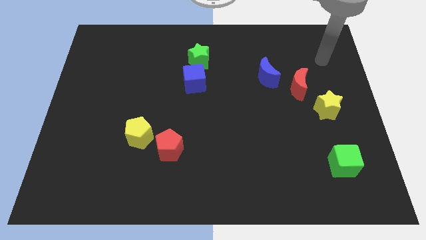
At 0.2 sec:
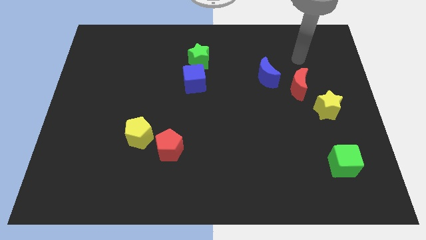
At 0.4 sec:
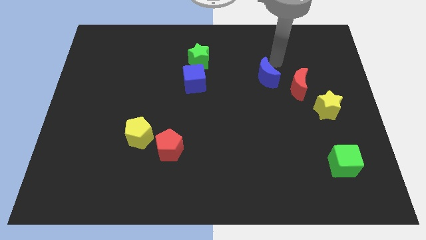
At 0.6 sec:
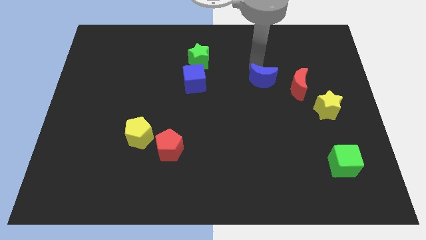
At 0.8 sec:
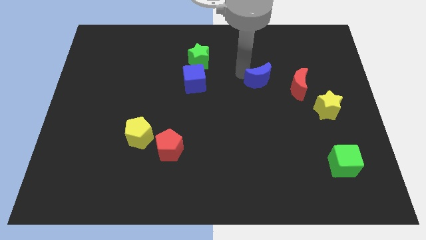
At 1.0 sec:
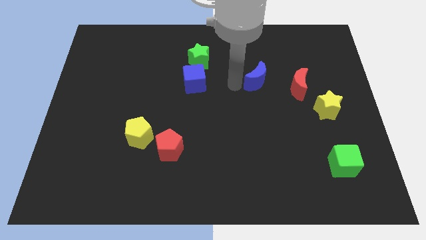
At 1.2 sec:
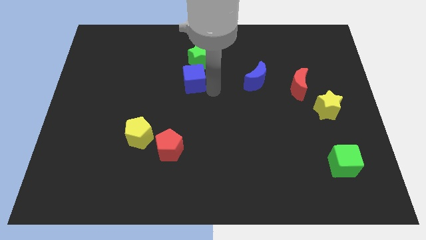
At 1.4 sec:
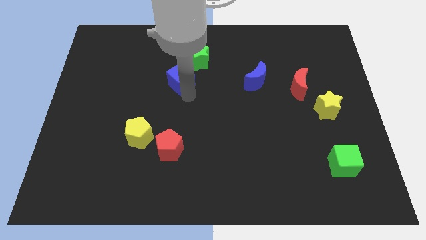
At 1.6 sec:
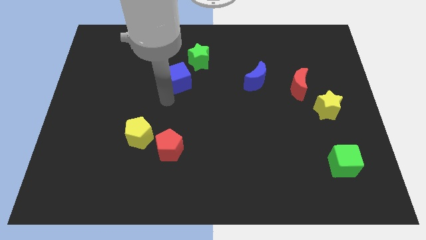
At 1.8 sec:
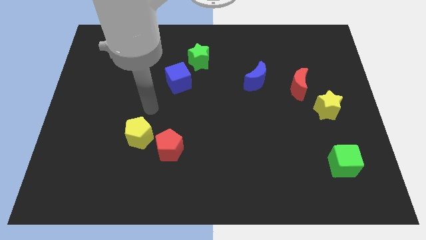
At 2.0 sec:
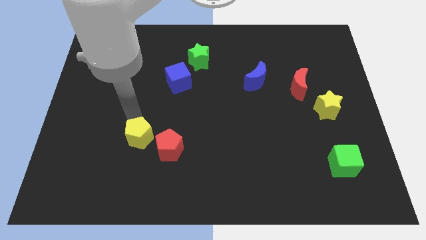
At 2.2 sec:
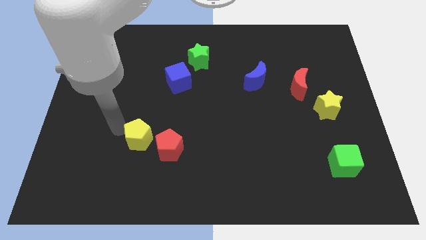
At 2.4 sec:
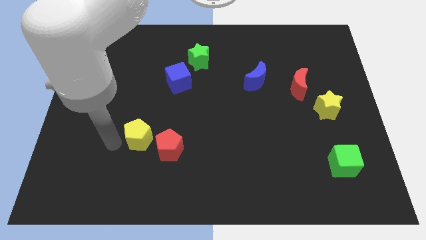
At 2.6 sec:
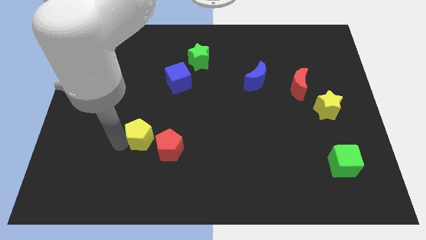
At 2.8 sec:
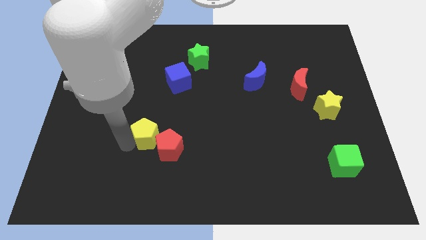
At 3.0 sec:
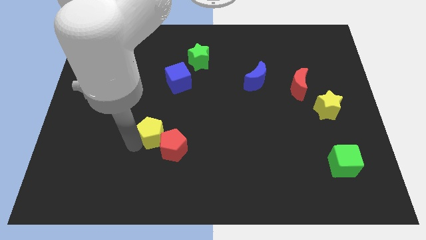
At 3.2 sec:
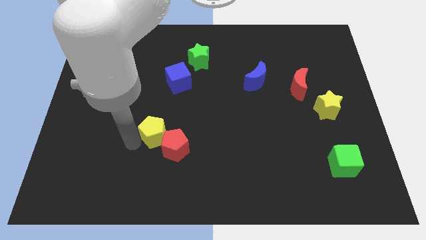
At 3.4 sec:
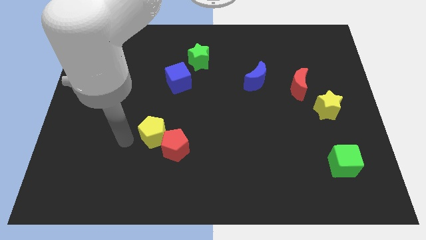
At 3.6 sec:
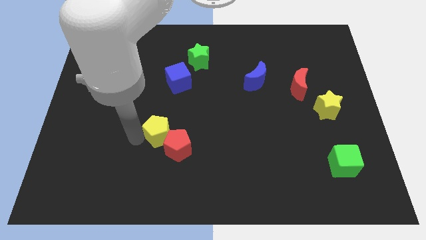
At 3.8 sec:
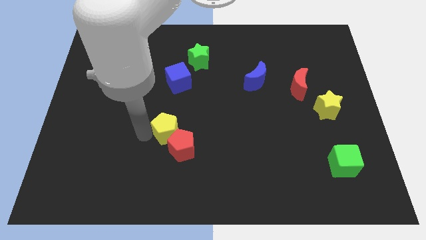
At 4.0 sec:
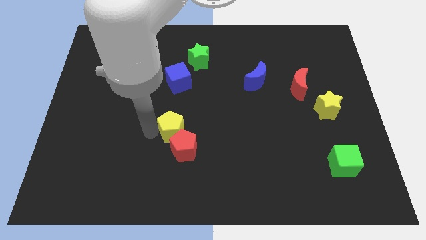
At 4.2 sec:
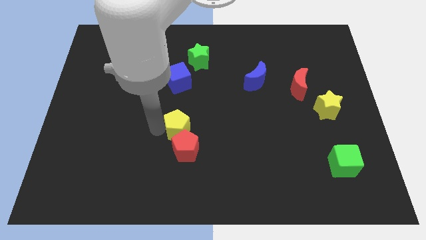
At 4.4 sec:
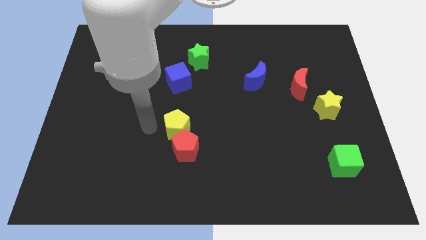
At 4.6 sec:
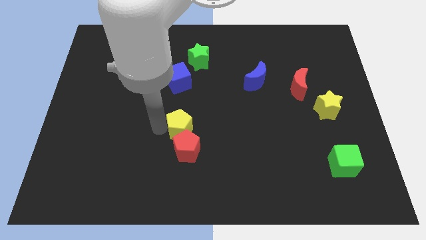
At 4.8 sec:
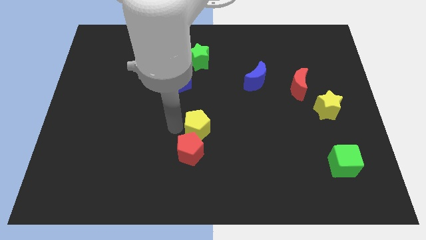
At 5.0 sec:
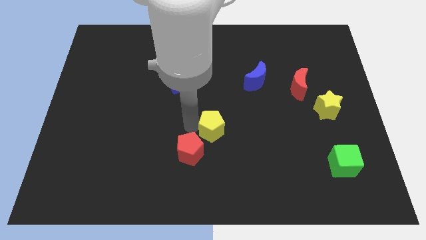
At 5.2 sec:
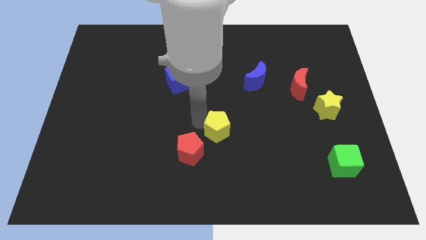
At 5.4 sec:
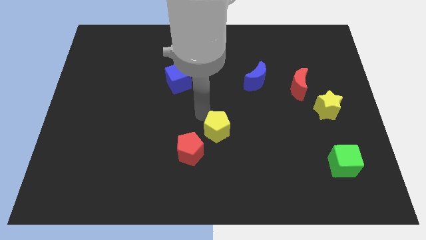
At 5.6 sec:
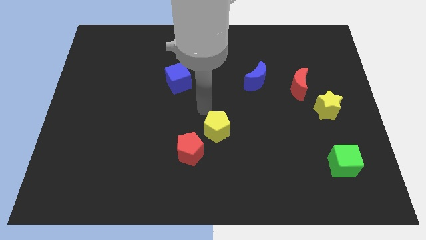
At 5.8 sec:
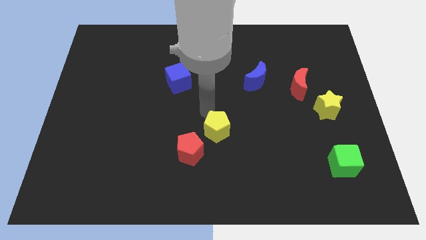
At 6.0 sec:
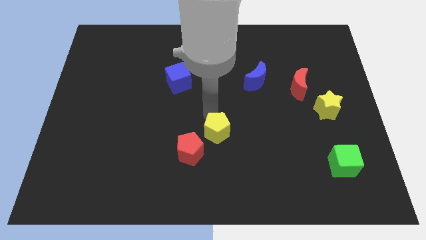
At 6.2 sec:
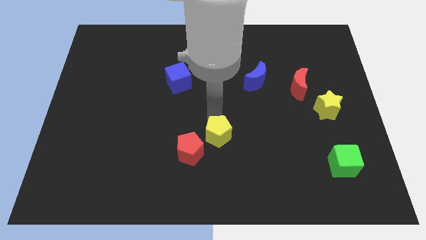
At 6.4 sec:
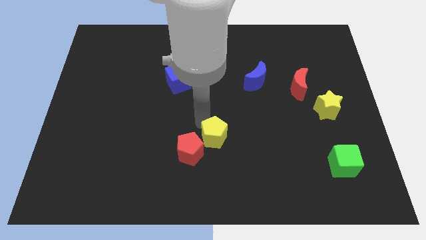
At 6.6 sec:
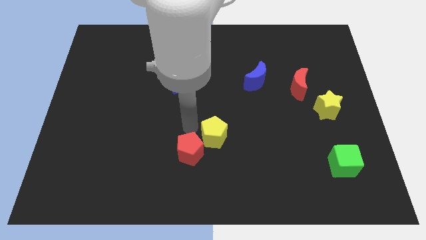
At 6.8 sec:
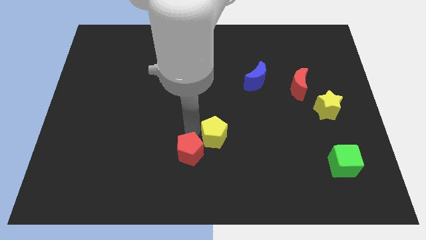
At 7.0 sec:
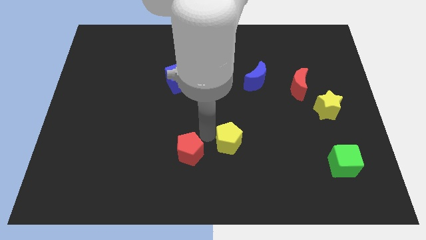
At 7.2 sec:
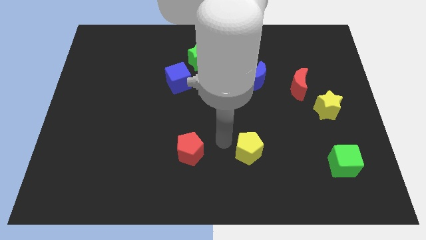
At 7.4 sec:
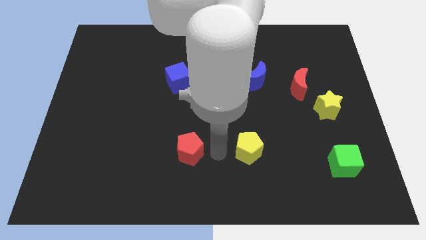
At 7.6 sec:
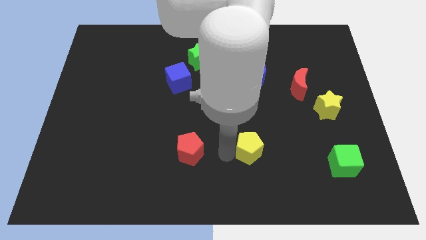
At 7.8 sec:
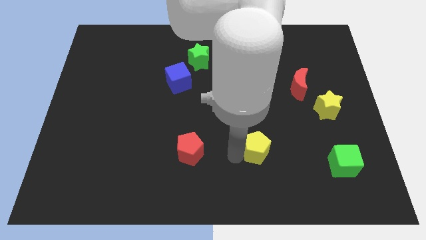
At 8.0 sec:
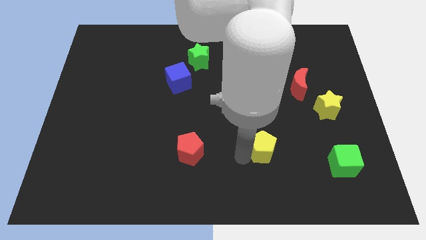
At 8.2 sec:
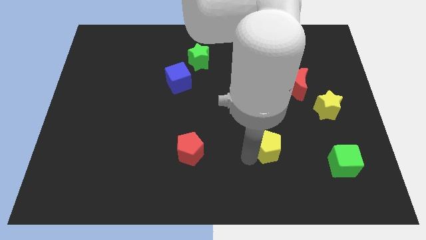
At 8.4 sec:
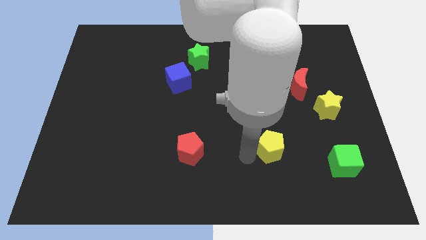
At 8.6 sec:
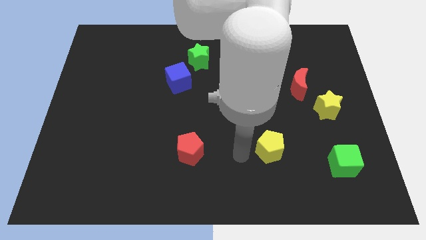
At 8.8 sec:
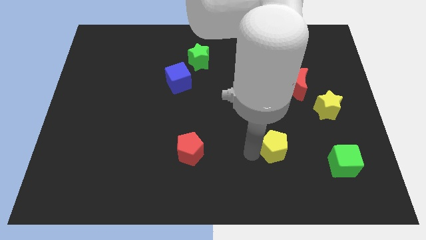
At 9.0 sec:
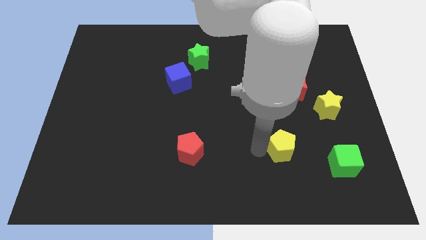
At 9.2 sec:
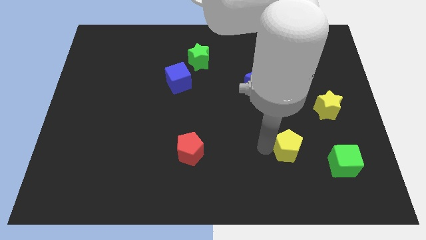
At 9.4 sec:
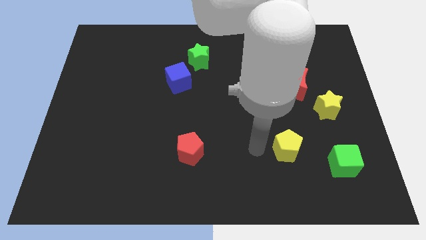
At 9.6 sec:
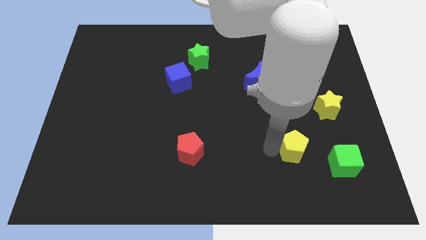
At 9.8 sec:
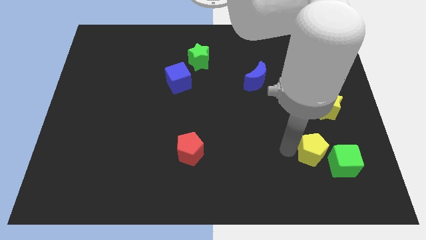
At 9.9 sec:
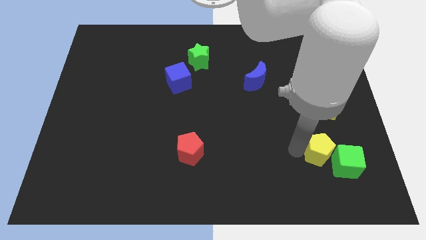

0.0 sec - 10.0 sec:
slide the yellow pentagon next to the green cube

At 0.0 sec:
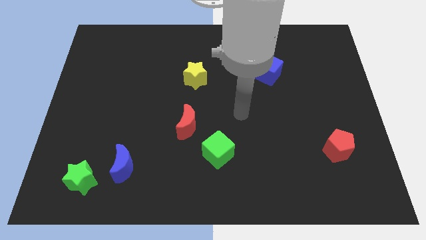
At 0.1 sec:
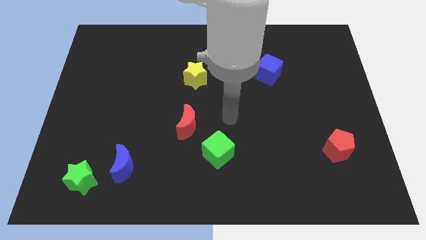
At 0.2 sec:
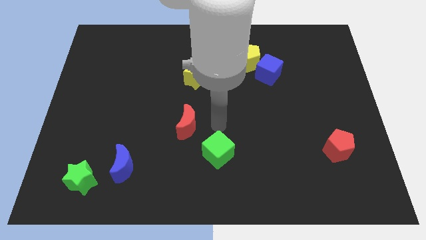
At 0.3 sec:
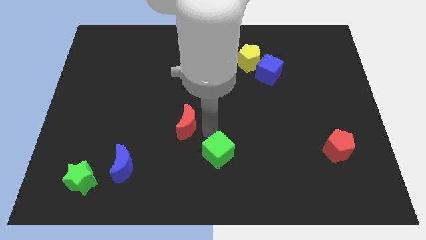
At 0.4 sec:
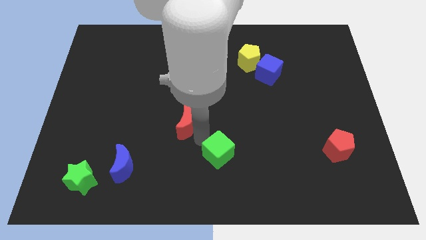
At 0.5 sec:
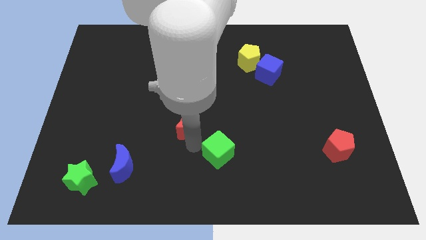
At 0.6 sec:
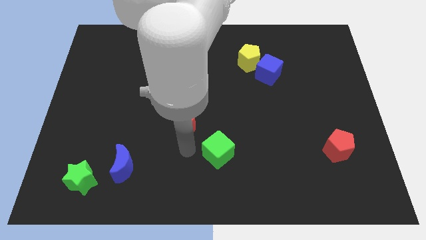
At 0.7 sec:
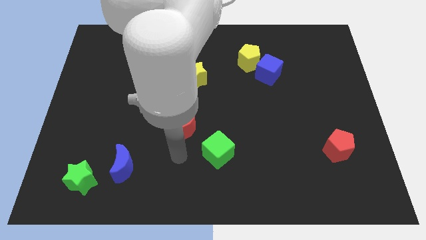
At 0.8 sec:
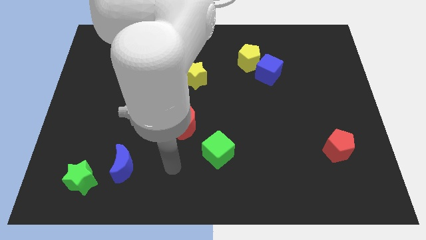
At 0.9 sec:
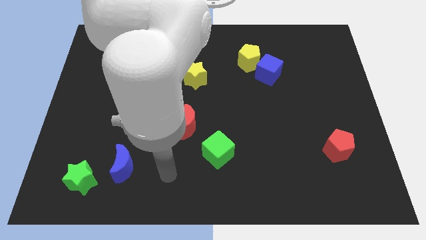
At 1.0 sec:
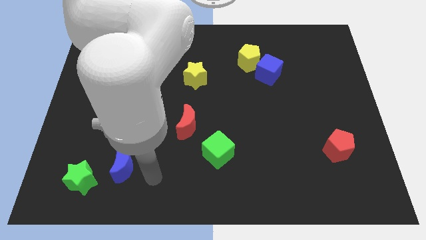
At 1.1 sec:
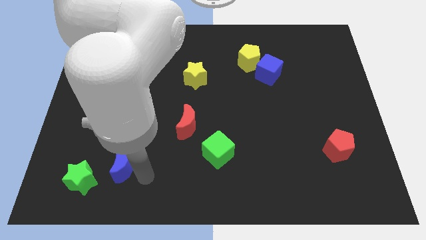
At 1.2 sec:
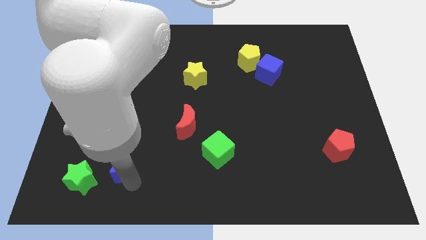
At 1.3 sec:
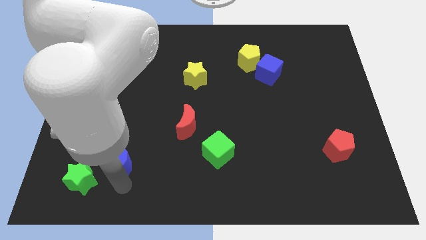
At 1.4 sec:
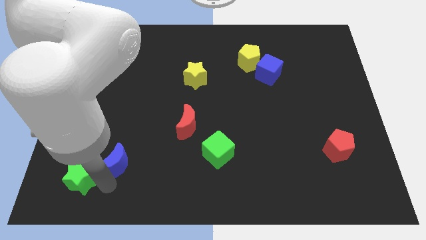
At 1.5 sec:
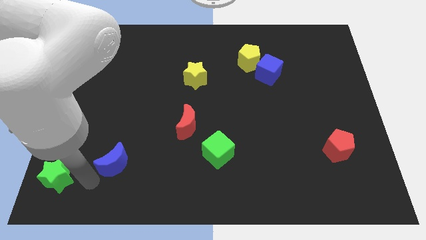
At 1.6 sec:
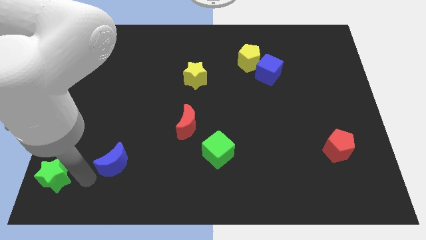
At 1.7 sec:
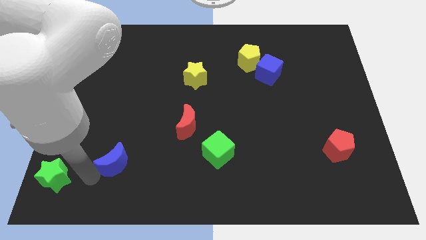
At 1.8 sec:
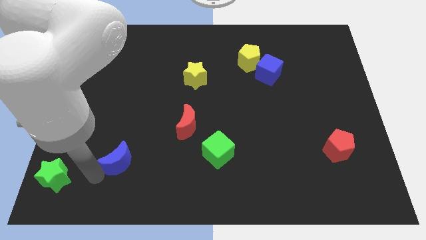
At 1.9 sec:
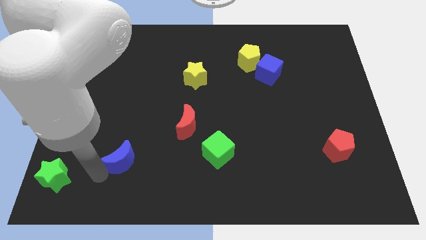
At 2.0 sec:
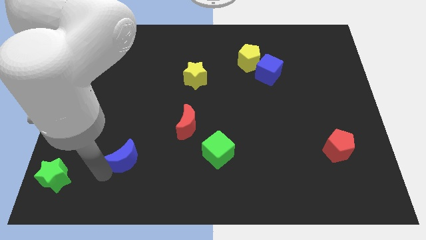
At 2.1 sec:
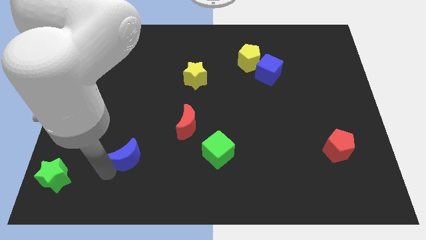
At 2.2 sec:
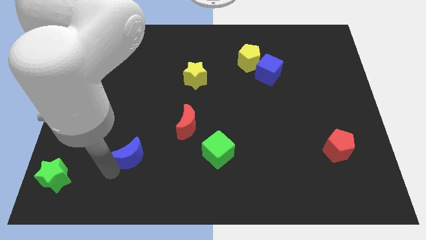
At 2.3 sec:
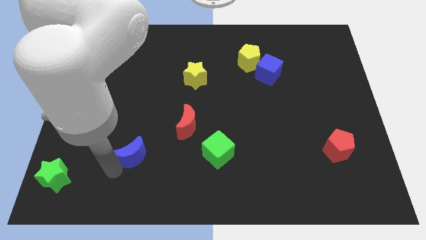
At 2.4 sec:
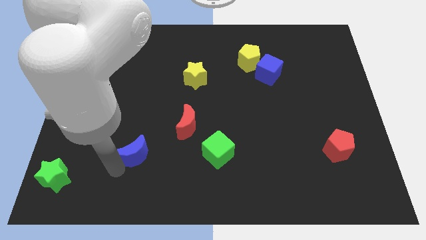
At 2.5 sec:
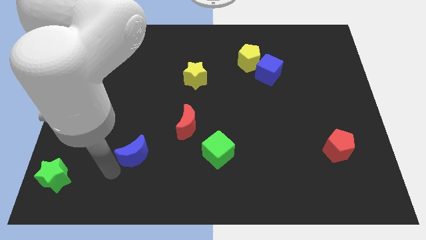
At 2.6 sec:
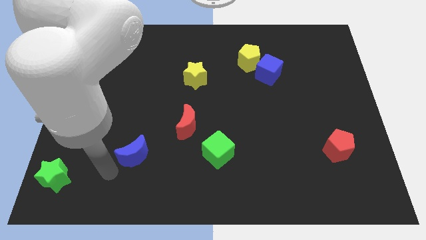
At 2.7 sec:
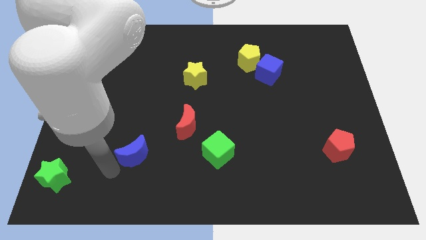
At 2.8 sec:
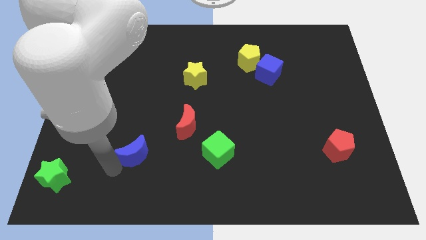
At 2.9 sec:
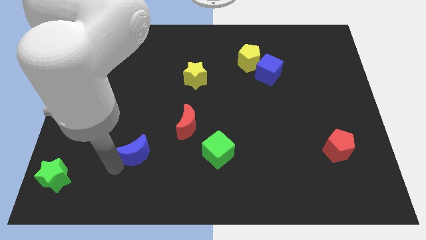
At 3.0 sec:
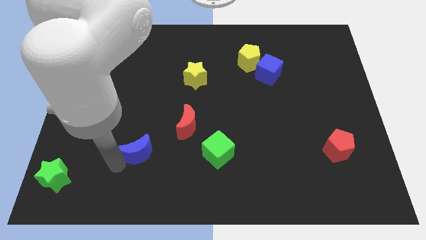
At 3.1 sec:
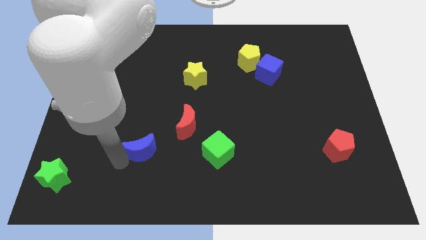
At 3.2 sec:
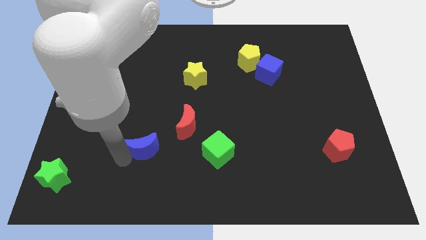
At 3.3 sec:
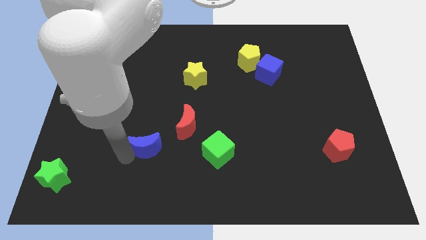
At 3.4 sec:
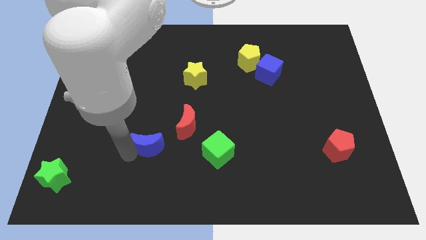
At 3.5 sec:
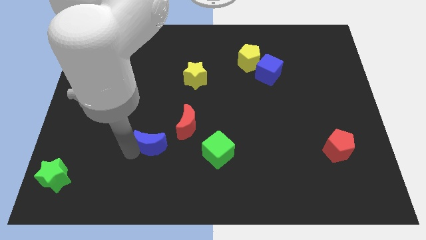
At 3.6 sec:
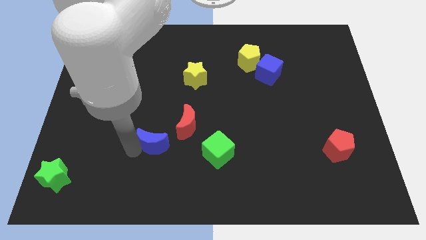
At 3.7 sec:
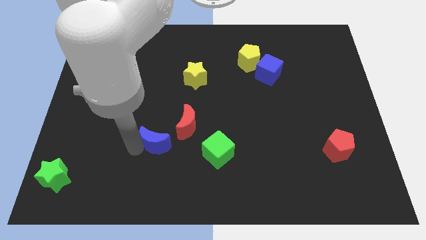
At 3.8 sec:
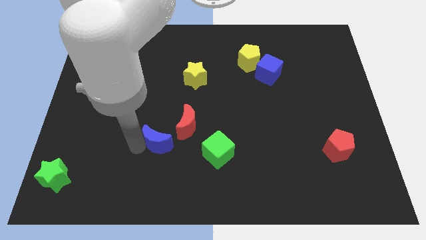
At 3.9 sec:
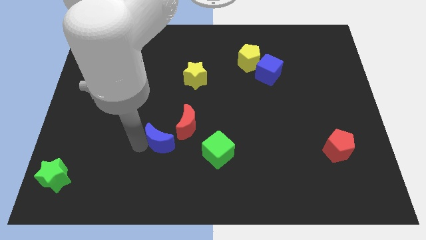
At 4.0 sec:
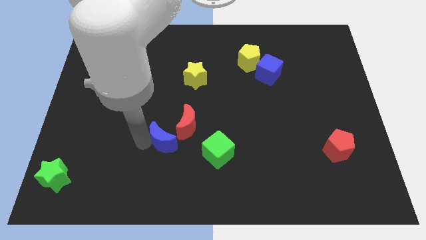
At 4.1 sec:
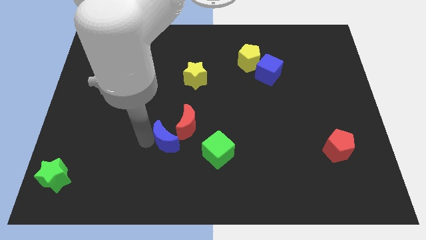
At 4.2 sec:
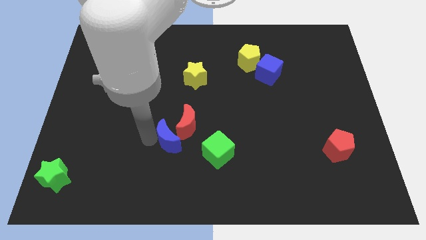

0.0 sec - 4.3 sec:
slide the blue moon next to the red moon
